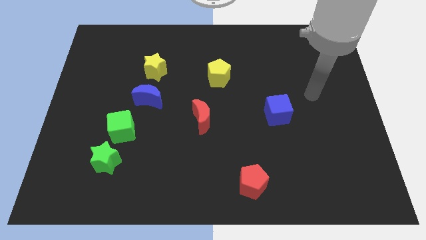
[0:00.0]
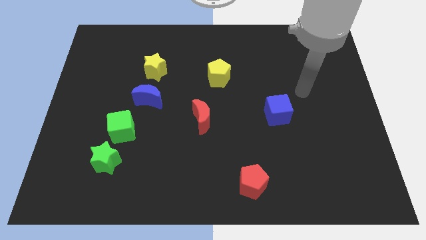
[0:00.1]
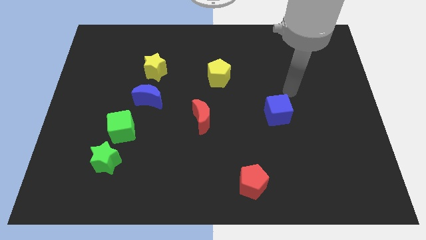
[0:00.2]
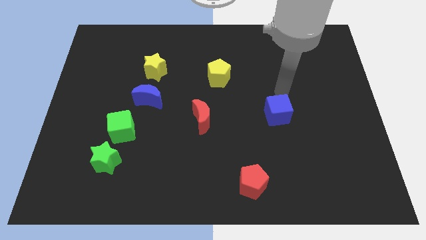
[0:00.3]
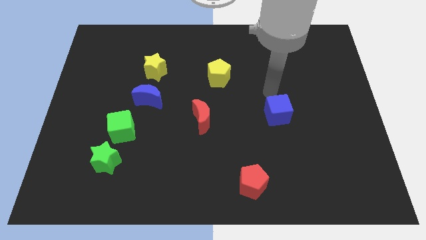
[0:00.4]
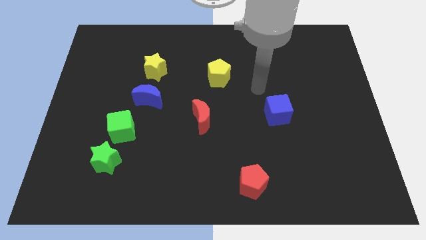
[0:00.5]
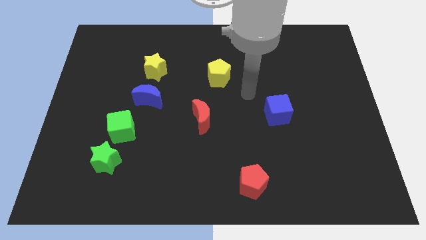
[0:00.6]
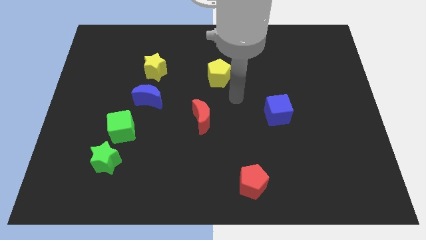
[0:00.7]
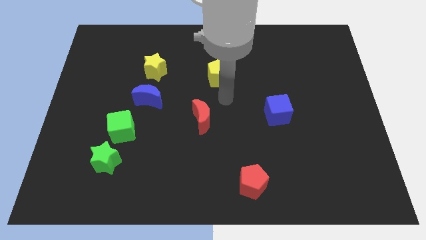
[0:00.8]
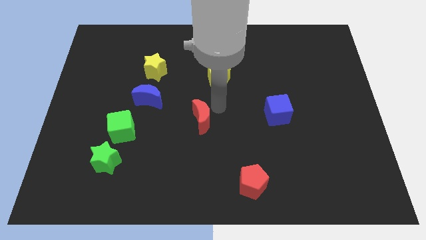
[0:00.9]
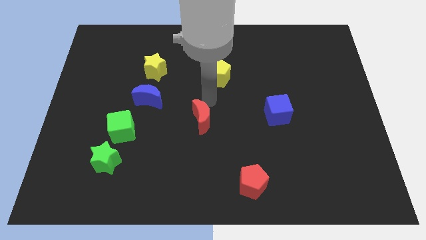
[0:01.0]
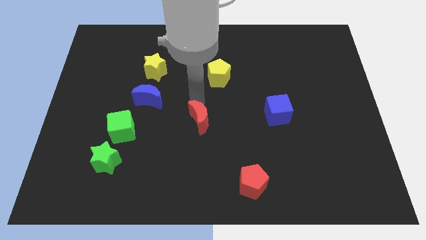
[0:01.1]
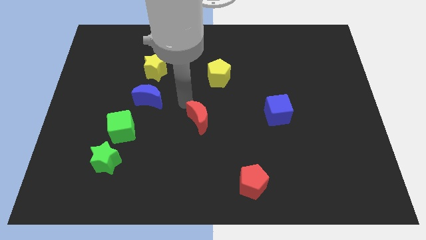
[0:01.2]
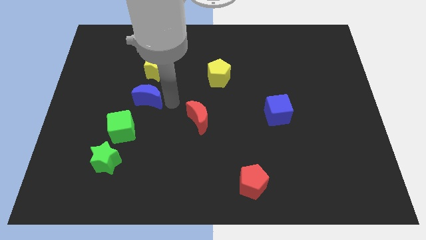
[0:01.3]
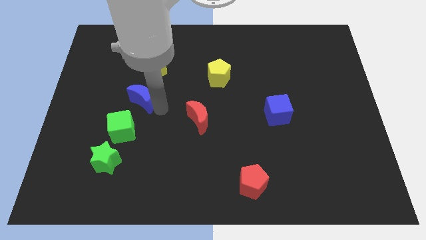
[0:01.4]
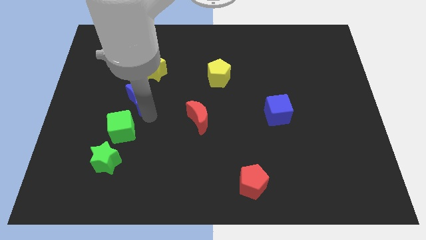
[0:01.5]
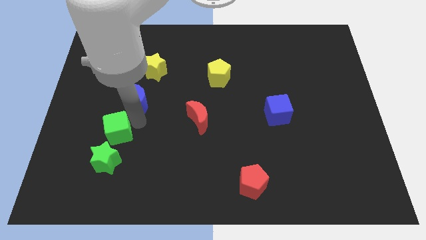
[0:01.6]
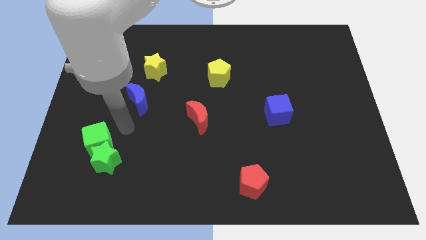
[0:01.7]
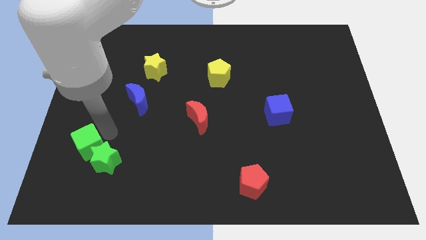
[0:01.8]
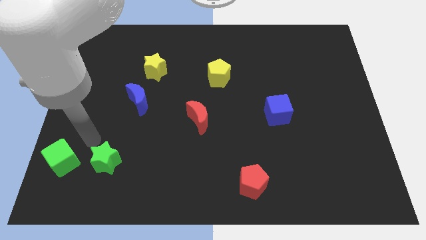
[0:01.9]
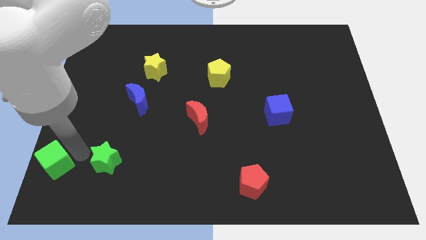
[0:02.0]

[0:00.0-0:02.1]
separate the green star from the green cube

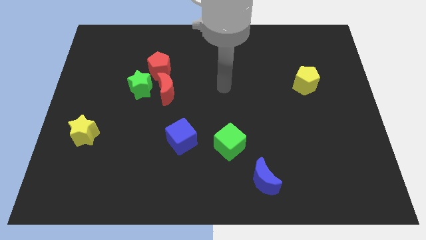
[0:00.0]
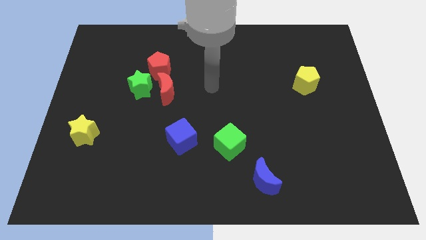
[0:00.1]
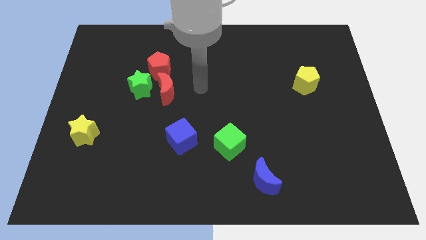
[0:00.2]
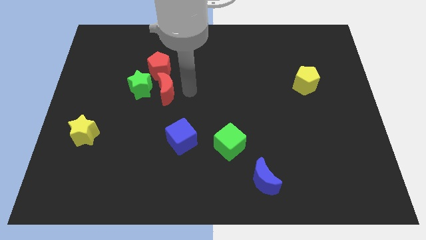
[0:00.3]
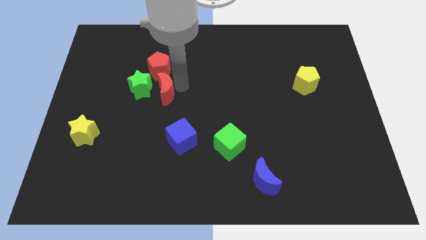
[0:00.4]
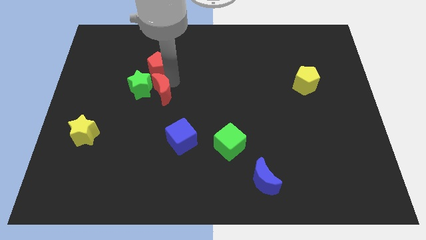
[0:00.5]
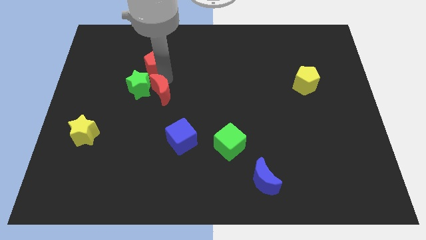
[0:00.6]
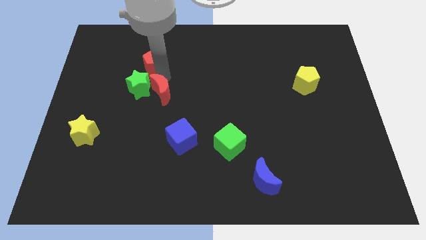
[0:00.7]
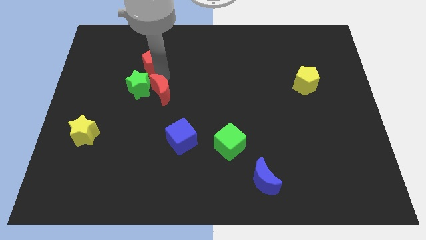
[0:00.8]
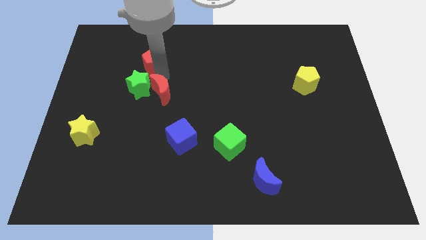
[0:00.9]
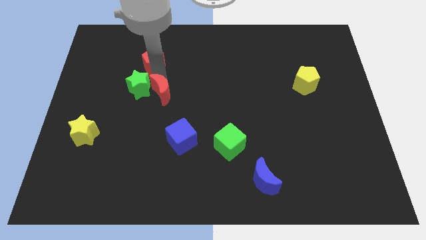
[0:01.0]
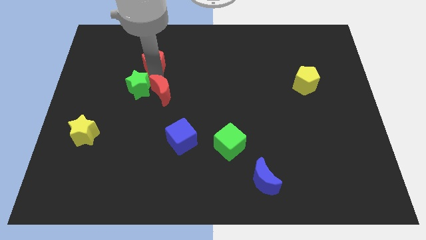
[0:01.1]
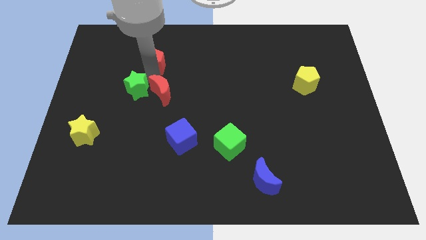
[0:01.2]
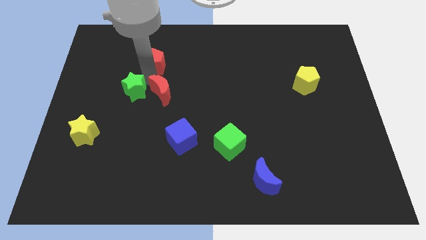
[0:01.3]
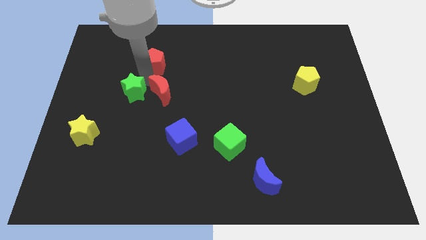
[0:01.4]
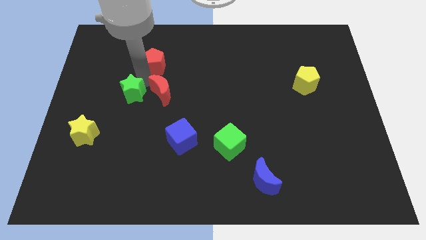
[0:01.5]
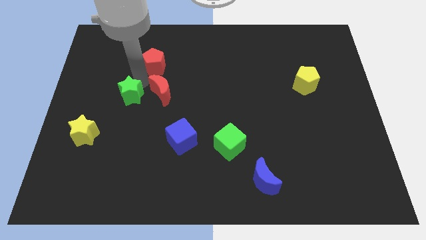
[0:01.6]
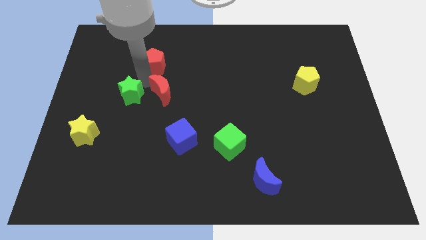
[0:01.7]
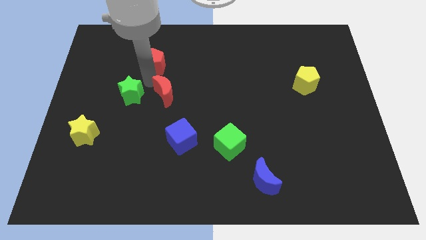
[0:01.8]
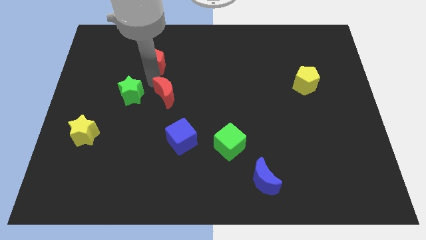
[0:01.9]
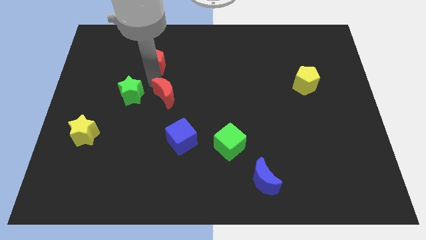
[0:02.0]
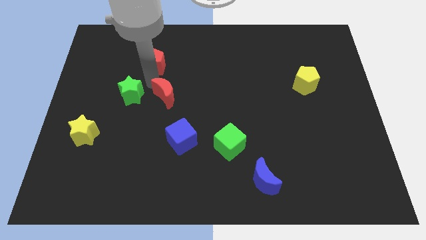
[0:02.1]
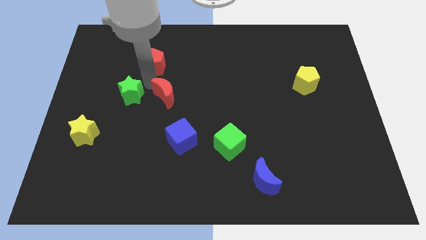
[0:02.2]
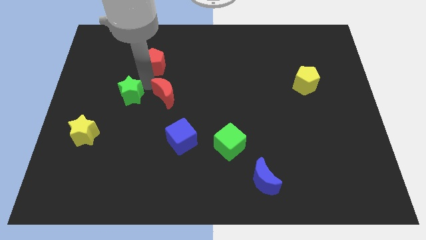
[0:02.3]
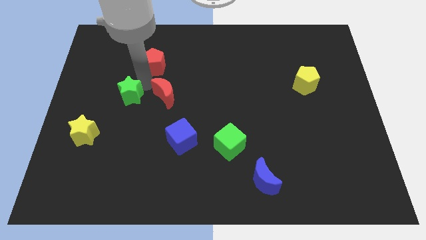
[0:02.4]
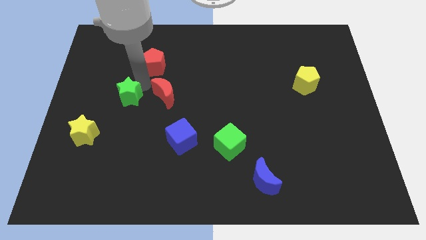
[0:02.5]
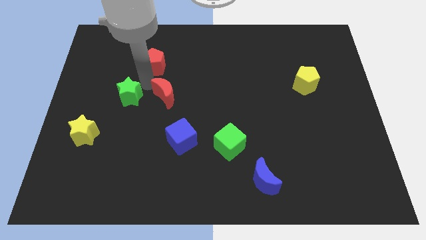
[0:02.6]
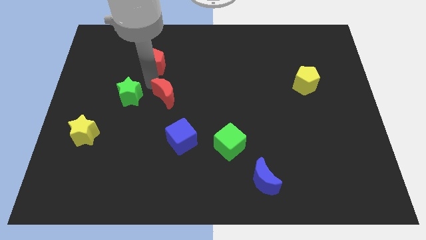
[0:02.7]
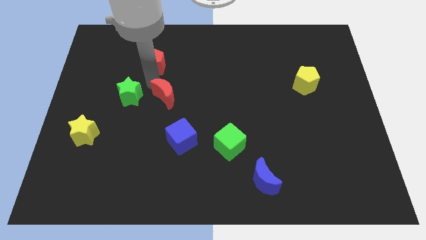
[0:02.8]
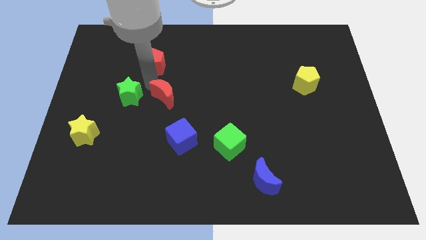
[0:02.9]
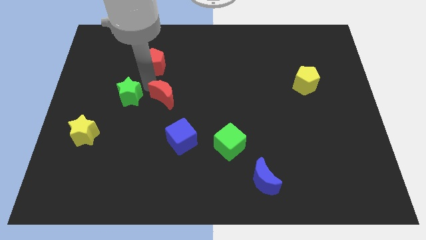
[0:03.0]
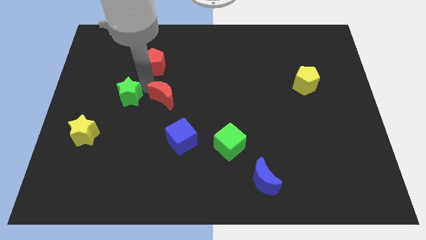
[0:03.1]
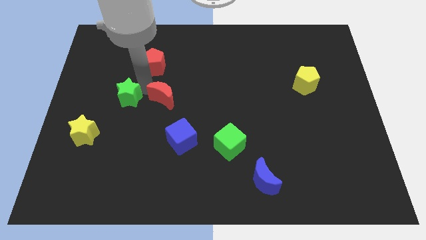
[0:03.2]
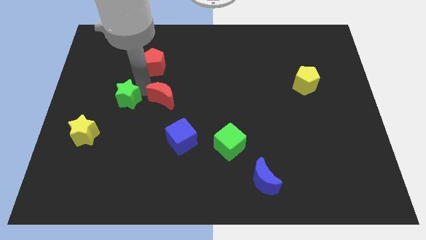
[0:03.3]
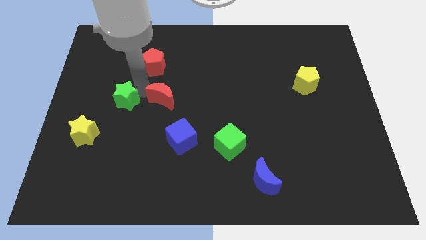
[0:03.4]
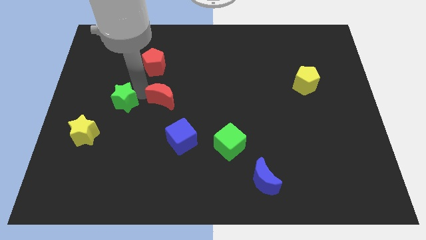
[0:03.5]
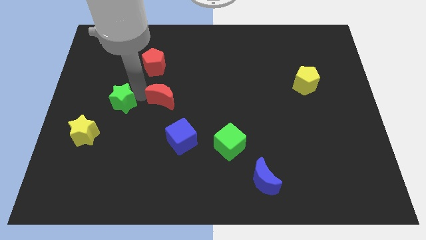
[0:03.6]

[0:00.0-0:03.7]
pull the green star apart from the red moon and red pentagon

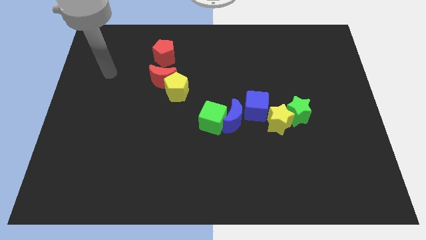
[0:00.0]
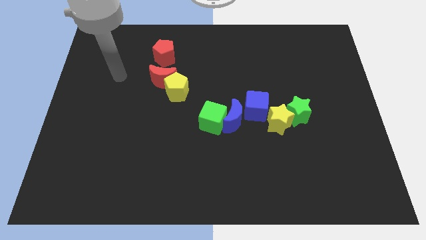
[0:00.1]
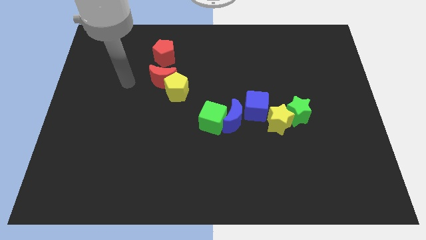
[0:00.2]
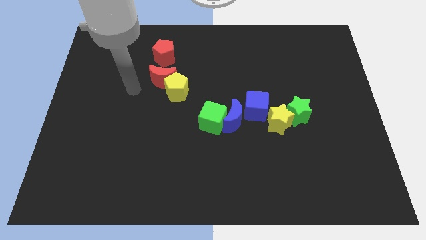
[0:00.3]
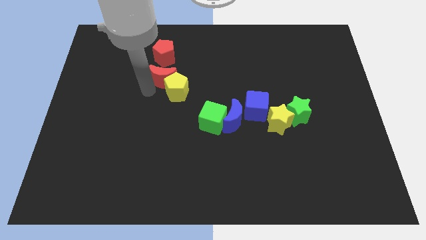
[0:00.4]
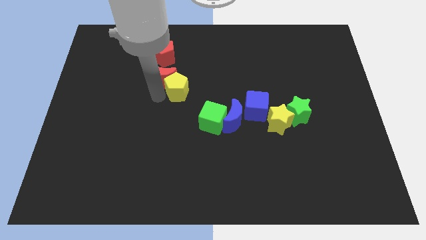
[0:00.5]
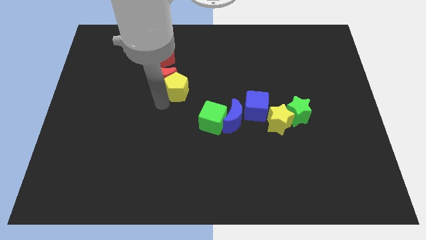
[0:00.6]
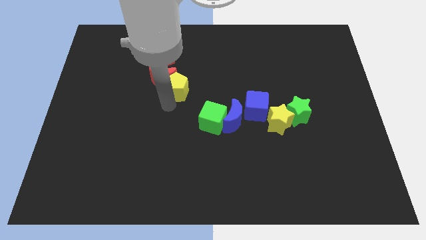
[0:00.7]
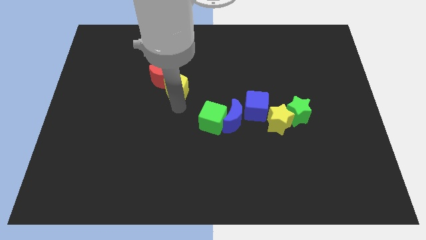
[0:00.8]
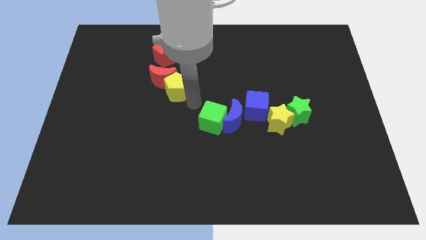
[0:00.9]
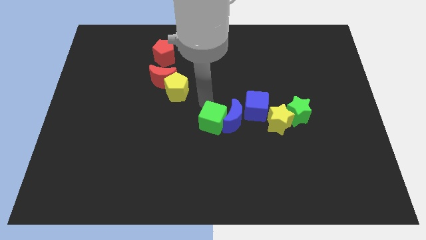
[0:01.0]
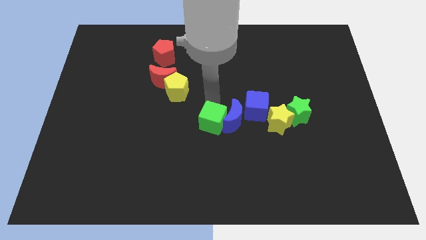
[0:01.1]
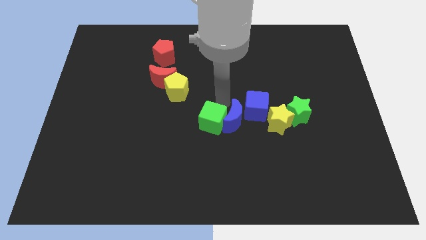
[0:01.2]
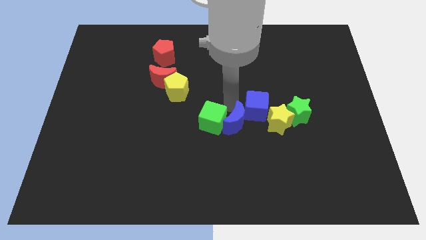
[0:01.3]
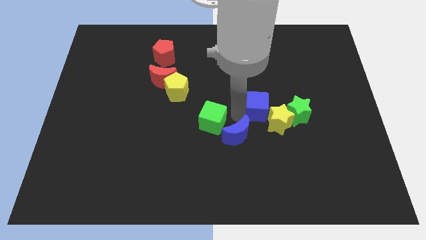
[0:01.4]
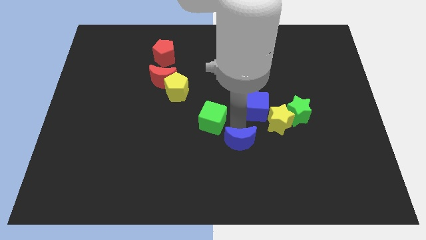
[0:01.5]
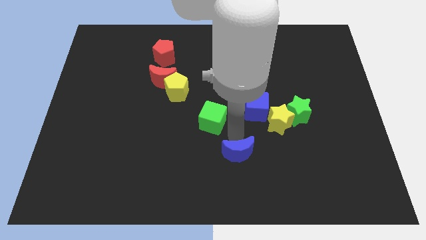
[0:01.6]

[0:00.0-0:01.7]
pull the green cube apart from the blue moon

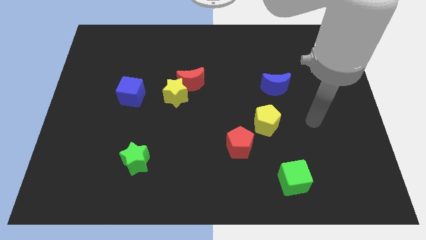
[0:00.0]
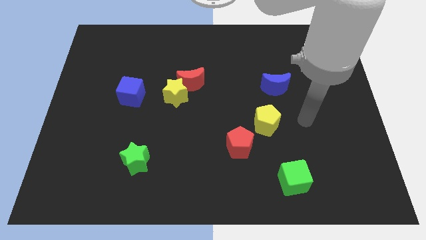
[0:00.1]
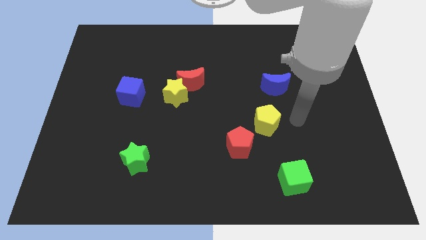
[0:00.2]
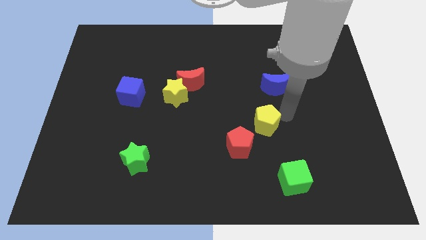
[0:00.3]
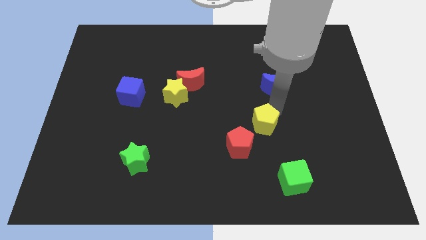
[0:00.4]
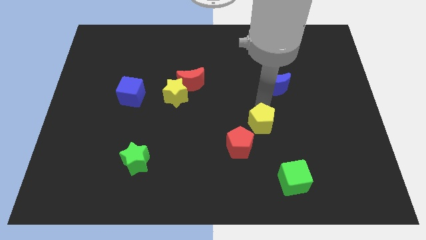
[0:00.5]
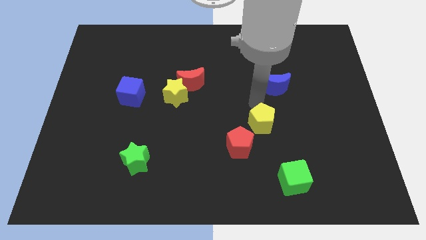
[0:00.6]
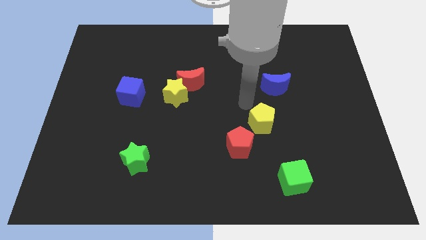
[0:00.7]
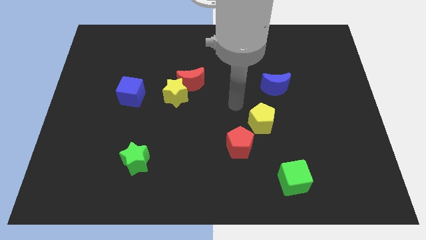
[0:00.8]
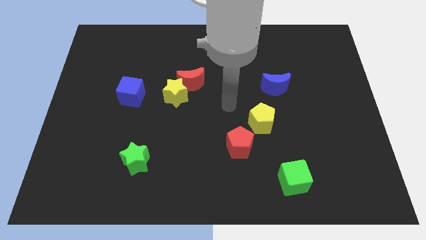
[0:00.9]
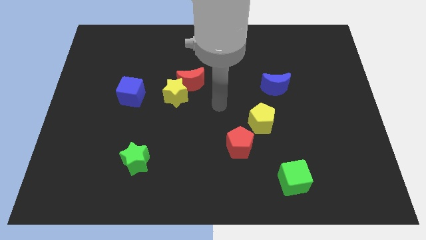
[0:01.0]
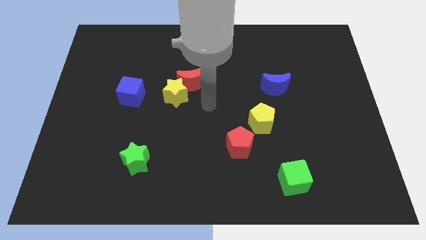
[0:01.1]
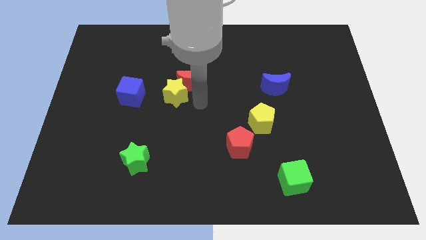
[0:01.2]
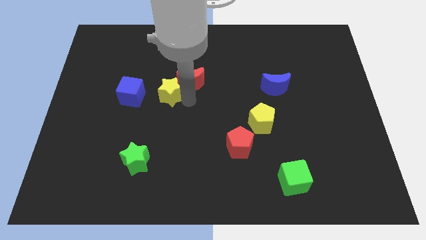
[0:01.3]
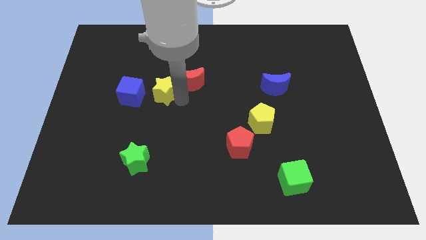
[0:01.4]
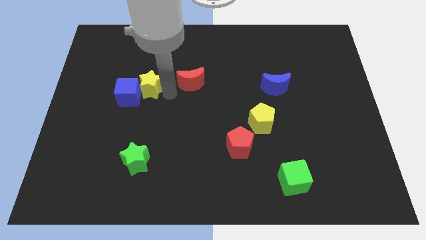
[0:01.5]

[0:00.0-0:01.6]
separate the red moon from the yellow star

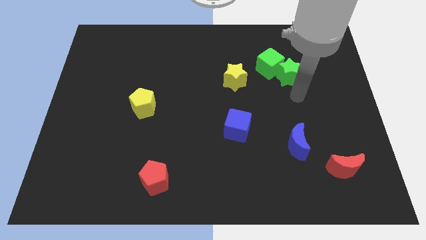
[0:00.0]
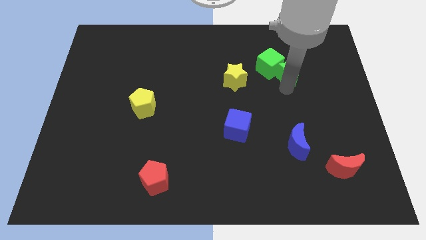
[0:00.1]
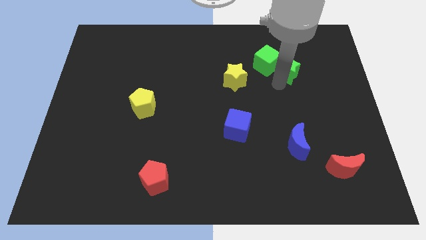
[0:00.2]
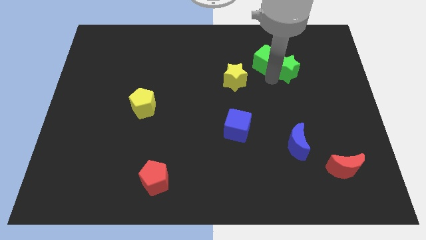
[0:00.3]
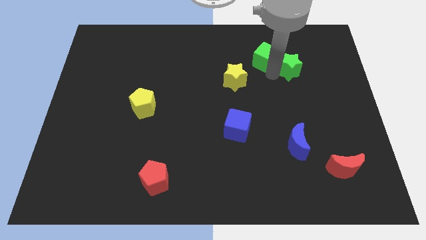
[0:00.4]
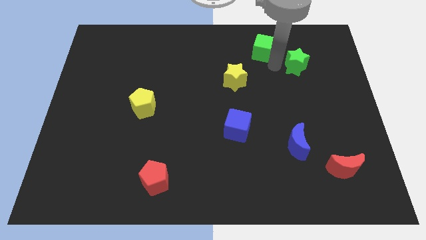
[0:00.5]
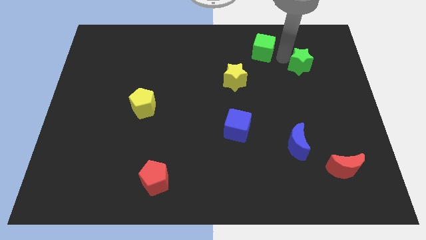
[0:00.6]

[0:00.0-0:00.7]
move the green star away from the green cube
